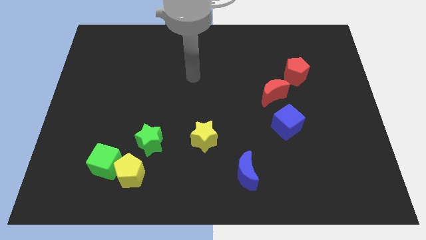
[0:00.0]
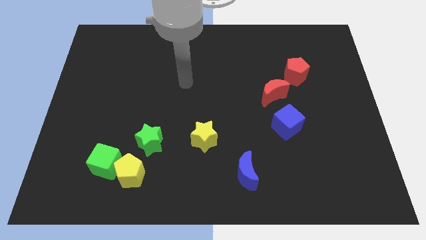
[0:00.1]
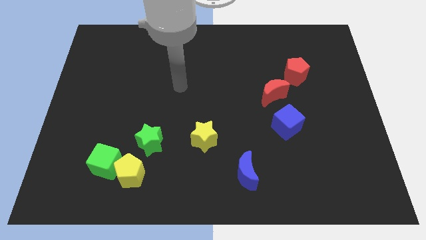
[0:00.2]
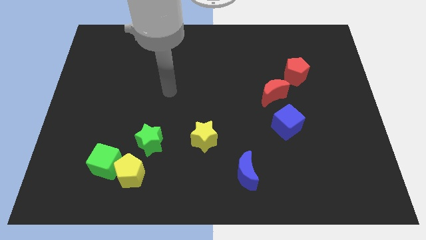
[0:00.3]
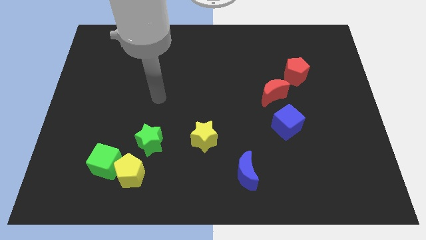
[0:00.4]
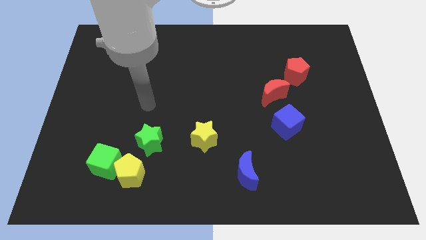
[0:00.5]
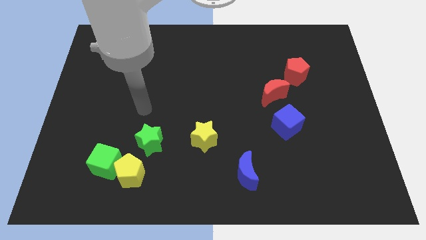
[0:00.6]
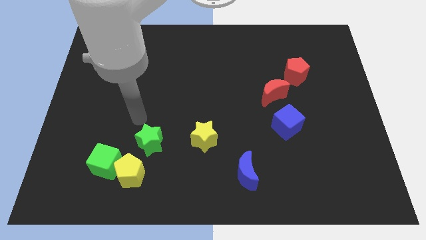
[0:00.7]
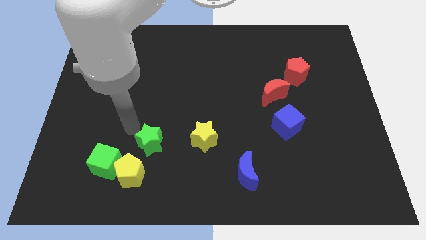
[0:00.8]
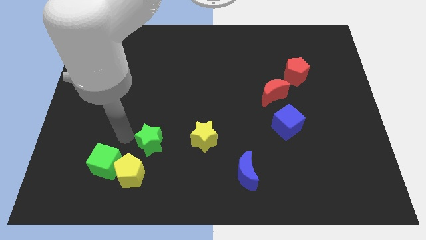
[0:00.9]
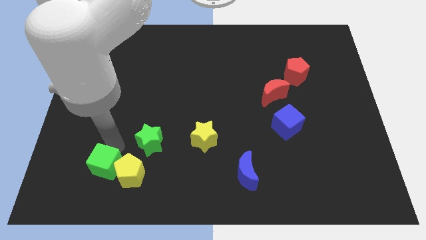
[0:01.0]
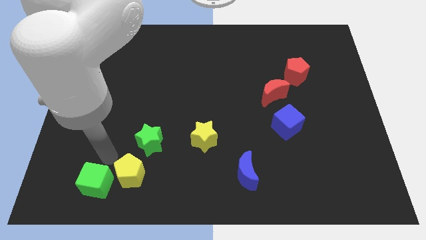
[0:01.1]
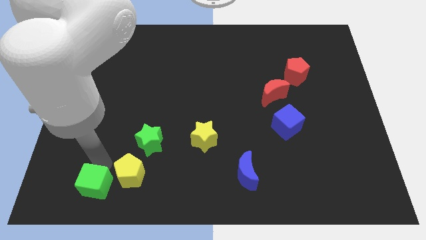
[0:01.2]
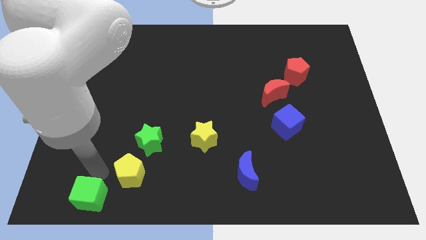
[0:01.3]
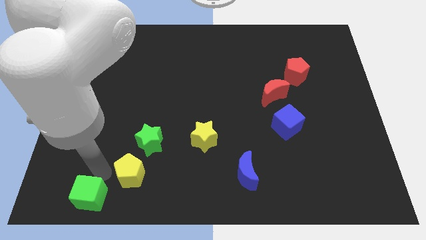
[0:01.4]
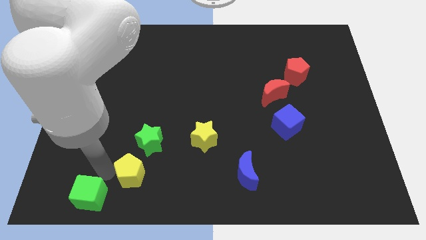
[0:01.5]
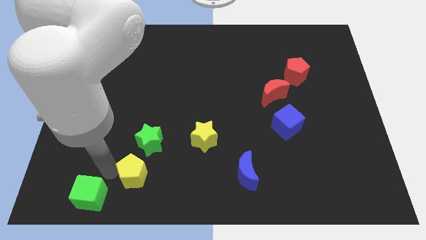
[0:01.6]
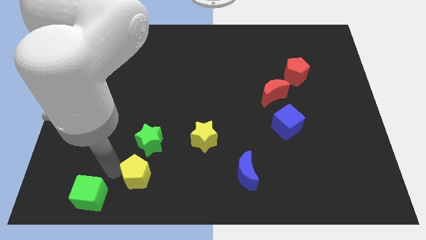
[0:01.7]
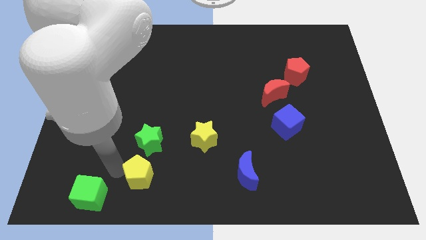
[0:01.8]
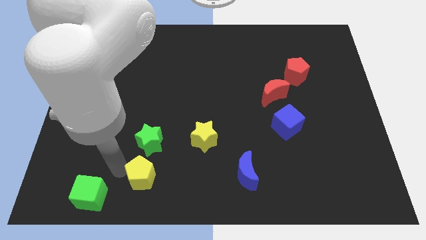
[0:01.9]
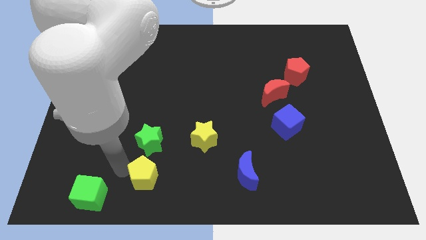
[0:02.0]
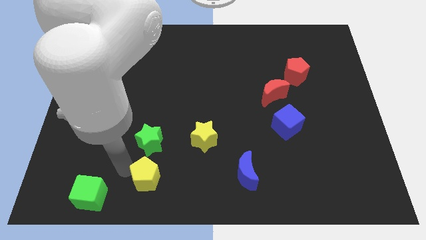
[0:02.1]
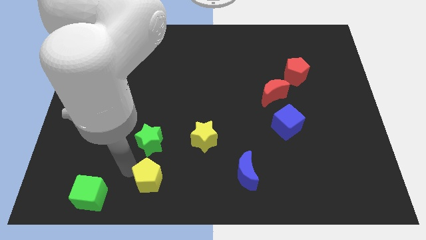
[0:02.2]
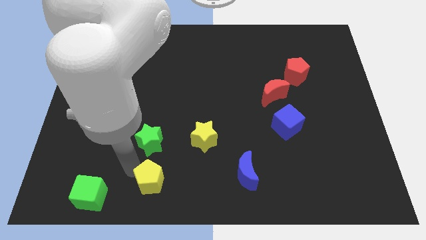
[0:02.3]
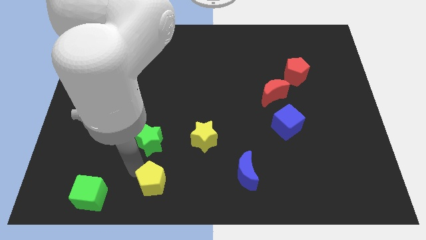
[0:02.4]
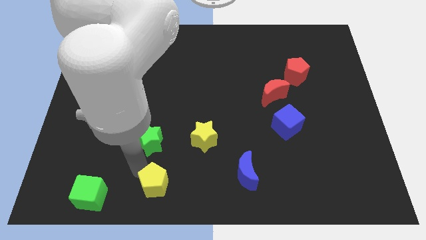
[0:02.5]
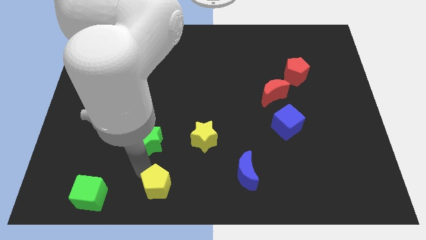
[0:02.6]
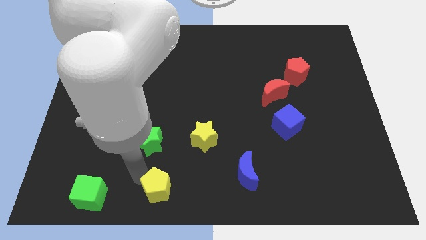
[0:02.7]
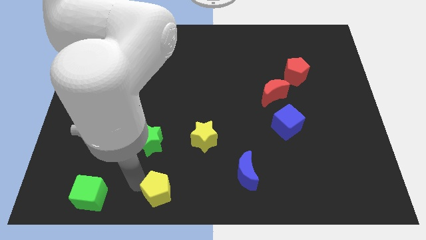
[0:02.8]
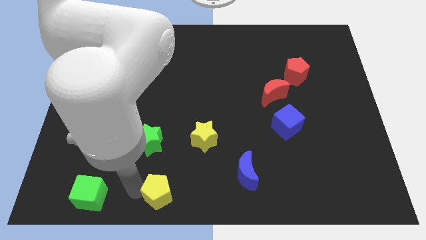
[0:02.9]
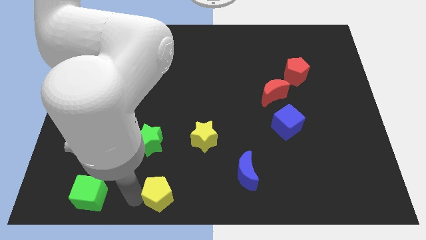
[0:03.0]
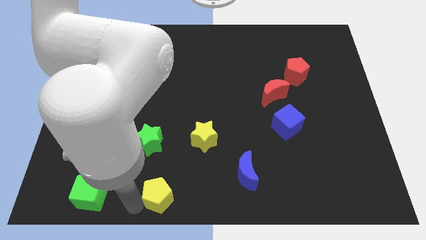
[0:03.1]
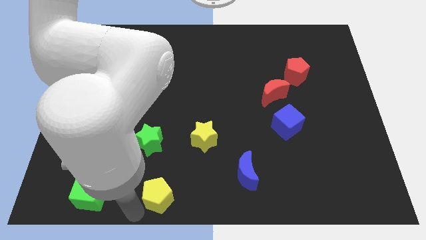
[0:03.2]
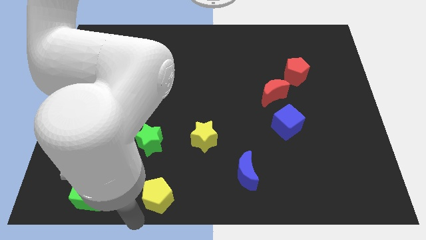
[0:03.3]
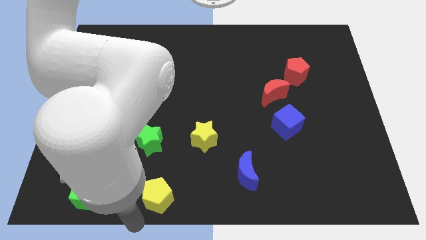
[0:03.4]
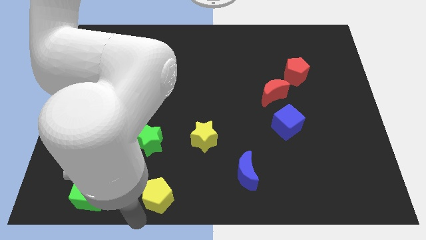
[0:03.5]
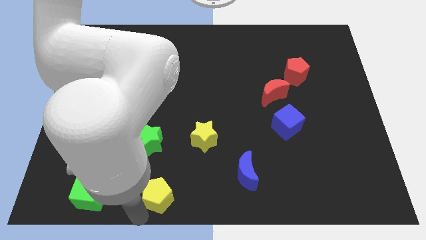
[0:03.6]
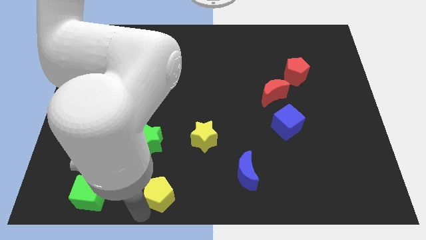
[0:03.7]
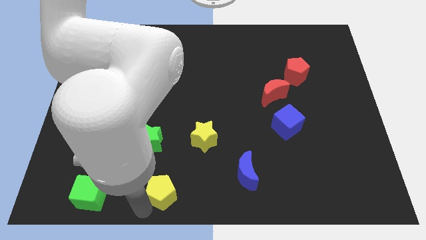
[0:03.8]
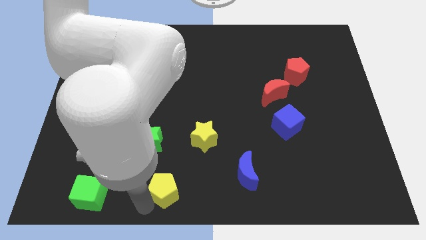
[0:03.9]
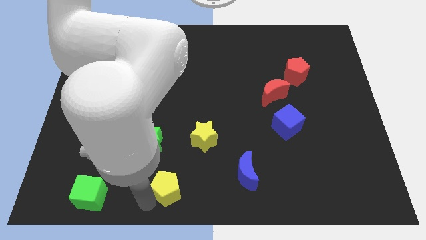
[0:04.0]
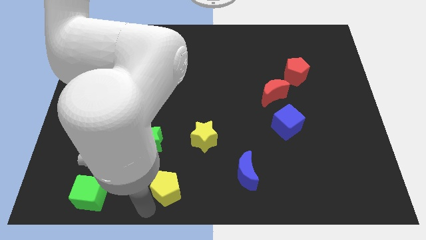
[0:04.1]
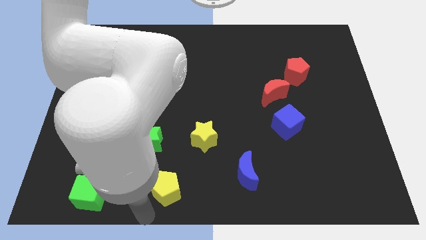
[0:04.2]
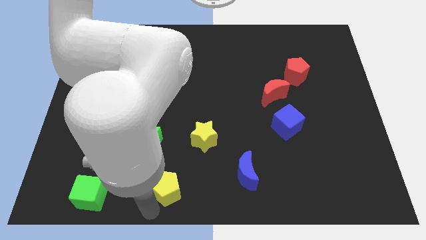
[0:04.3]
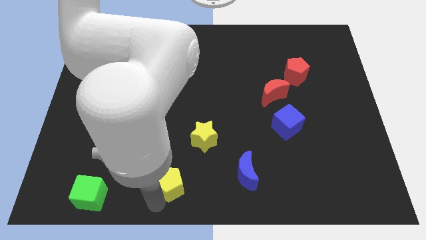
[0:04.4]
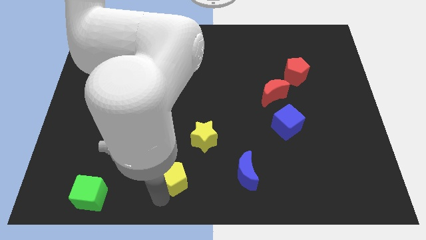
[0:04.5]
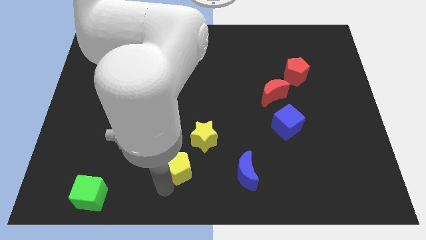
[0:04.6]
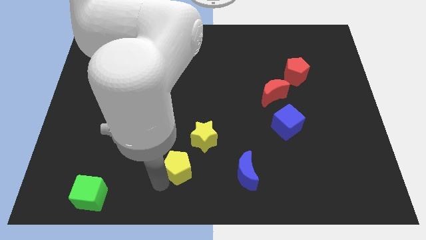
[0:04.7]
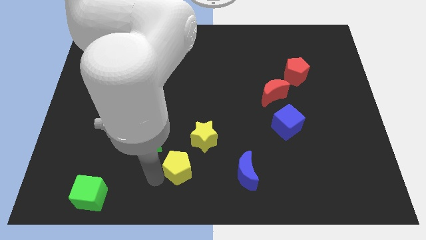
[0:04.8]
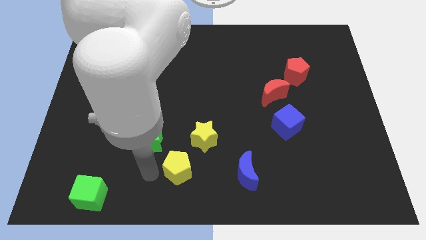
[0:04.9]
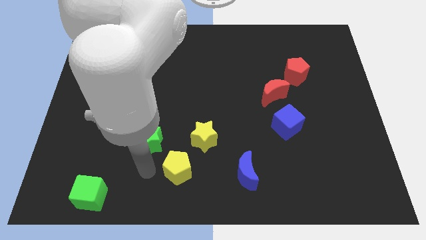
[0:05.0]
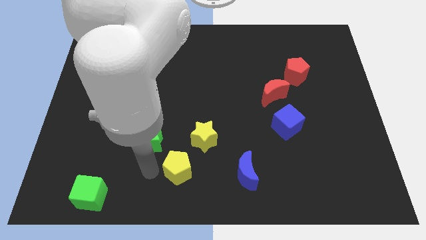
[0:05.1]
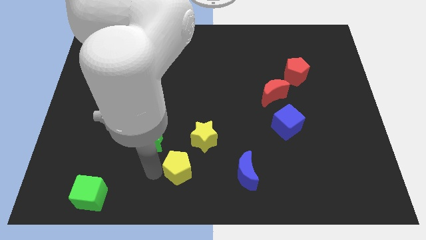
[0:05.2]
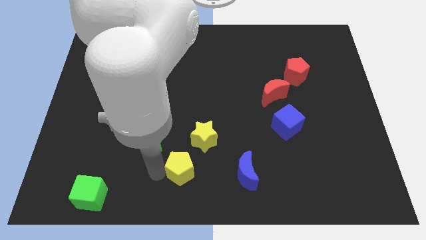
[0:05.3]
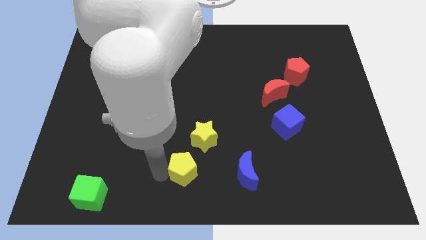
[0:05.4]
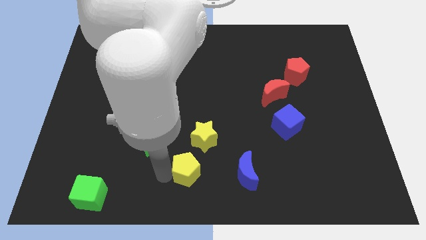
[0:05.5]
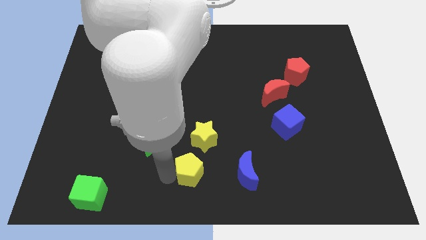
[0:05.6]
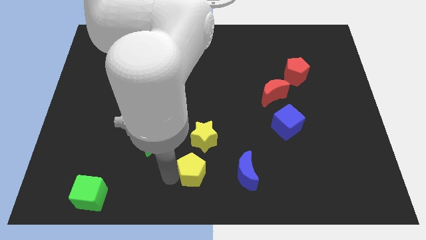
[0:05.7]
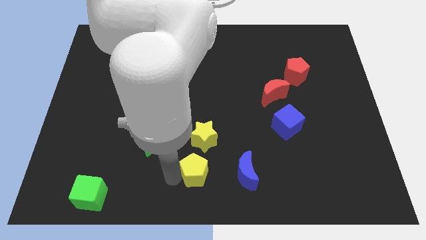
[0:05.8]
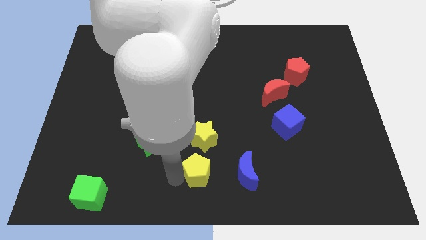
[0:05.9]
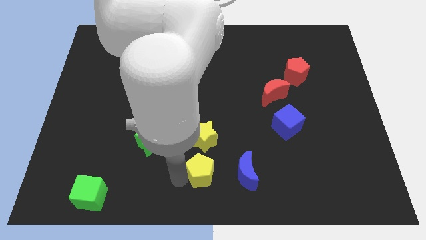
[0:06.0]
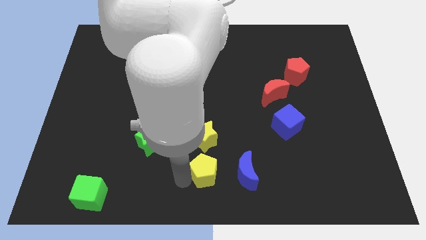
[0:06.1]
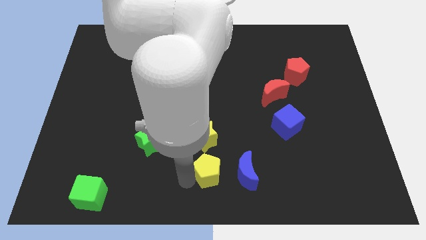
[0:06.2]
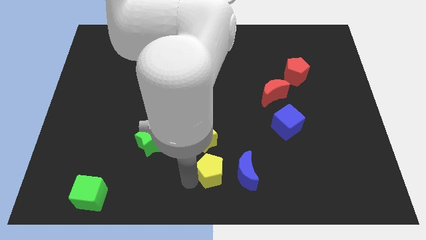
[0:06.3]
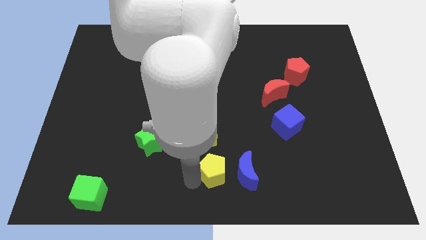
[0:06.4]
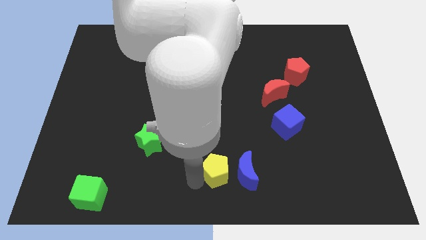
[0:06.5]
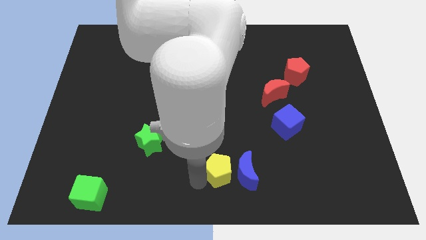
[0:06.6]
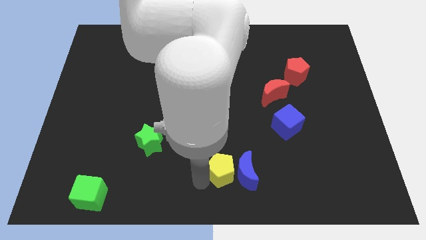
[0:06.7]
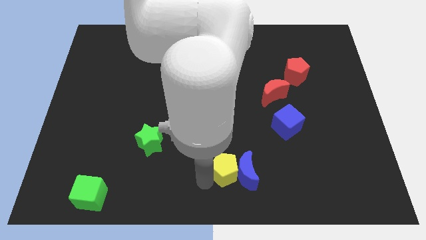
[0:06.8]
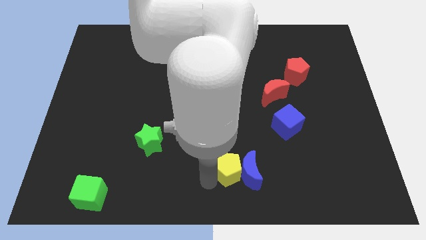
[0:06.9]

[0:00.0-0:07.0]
slide the yellow pentagon right

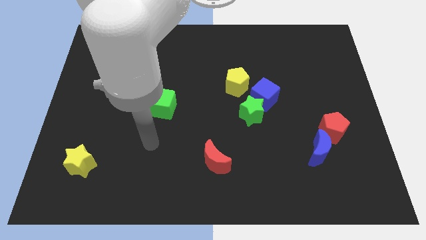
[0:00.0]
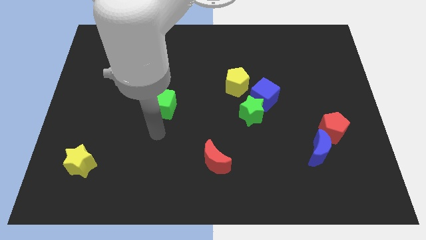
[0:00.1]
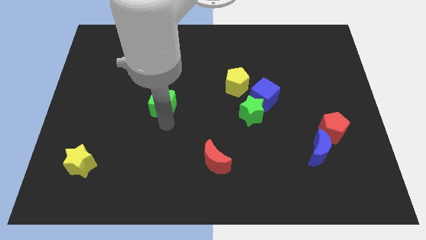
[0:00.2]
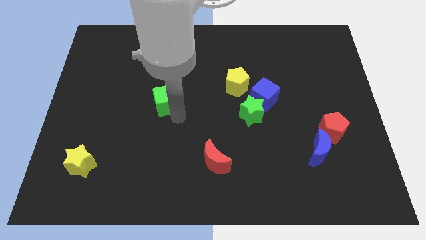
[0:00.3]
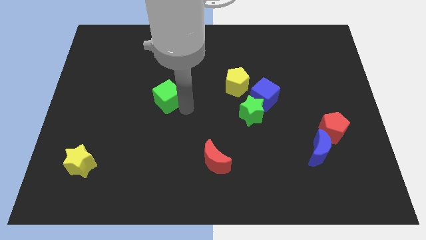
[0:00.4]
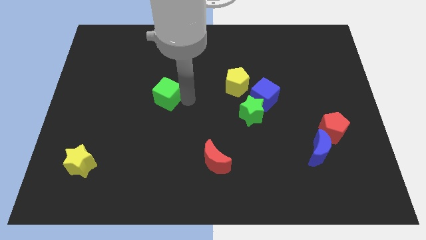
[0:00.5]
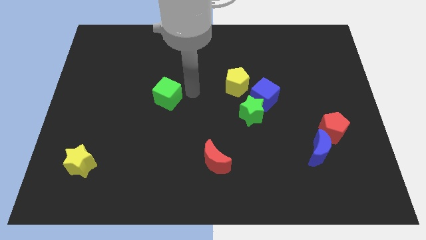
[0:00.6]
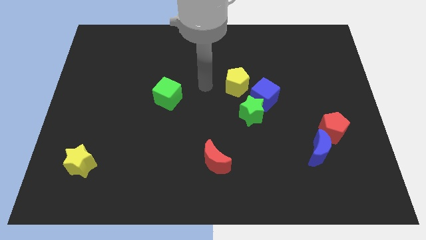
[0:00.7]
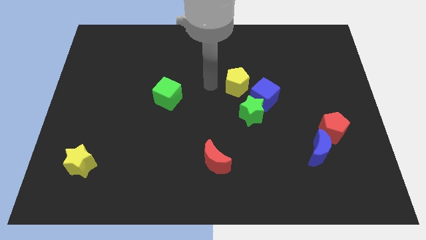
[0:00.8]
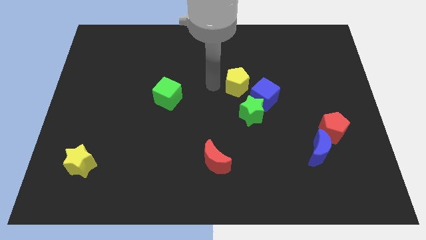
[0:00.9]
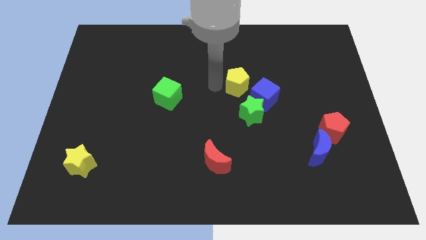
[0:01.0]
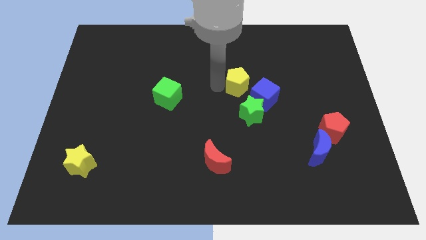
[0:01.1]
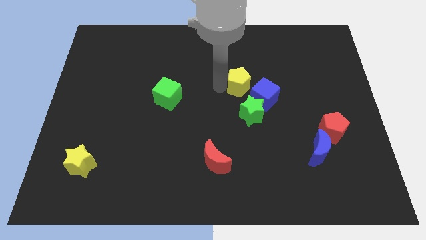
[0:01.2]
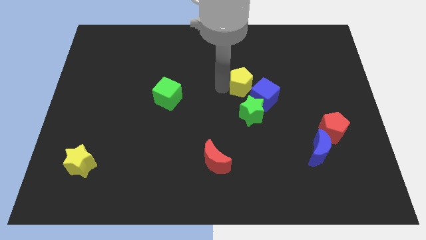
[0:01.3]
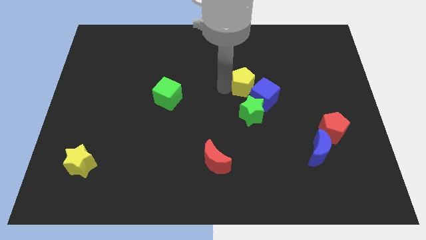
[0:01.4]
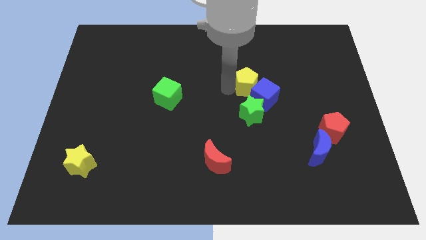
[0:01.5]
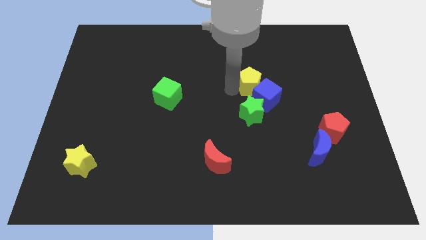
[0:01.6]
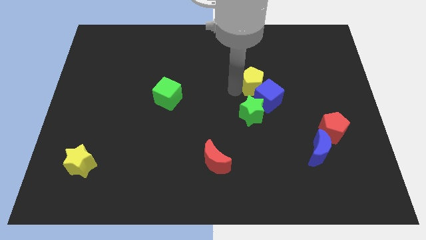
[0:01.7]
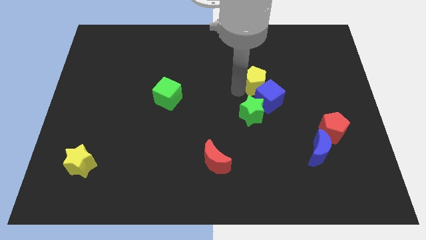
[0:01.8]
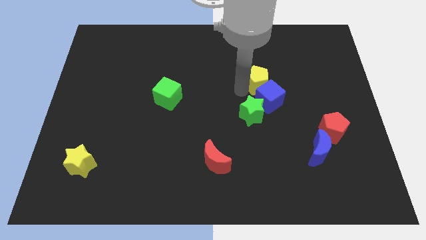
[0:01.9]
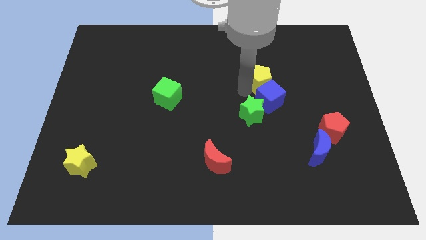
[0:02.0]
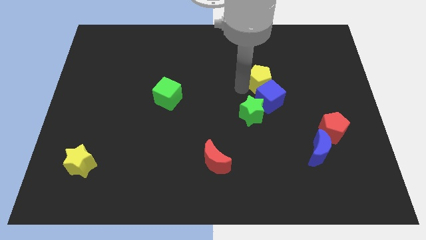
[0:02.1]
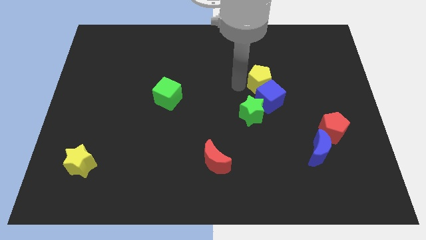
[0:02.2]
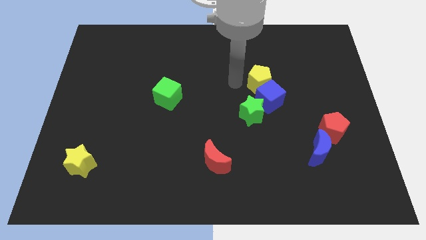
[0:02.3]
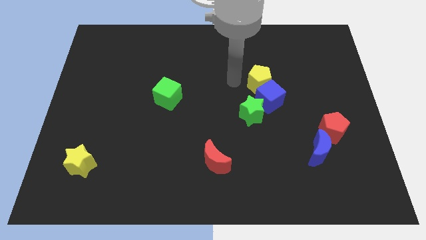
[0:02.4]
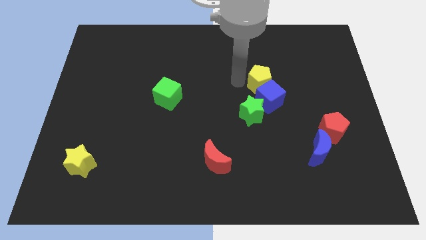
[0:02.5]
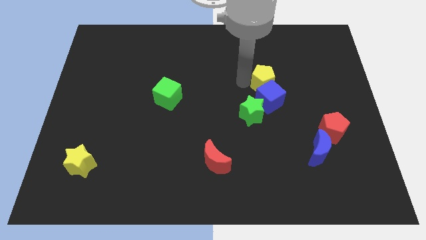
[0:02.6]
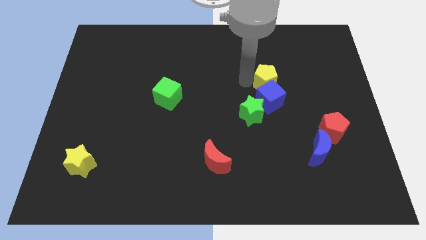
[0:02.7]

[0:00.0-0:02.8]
slide the yellow pentagon a little bit right
